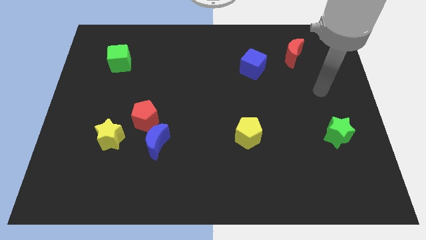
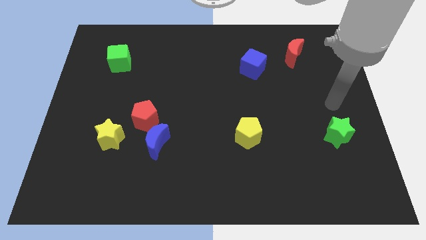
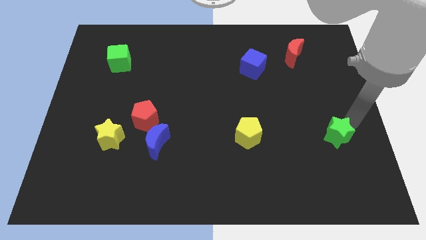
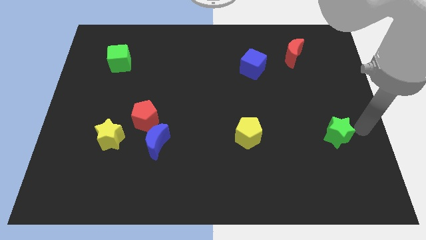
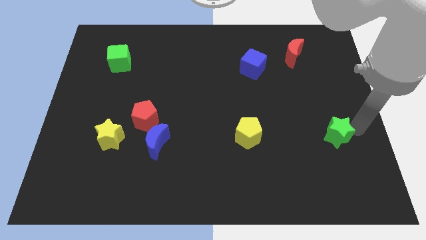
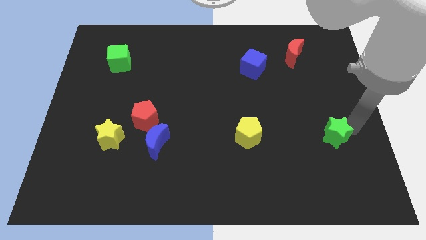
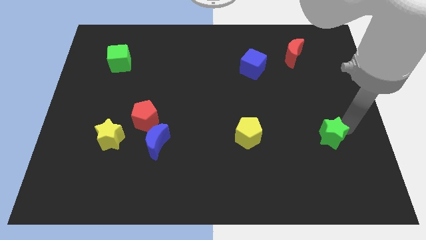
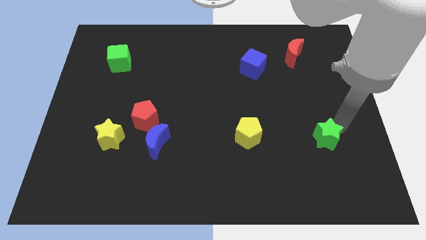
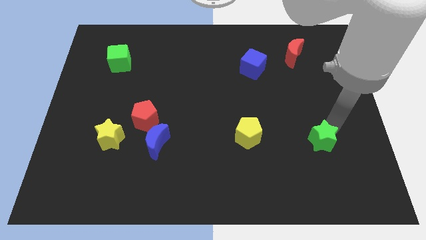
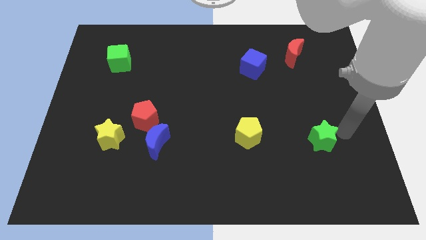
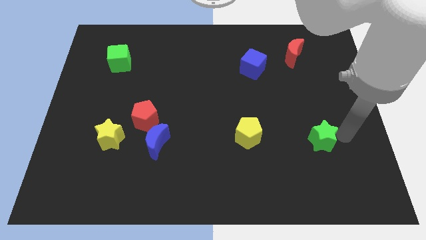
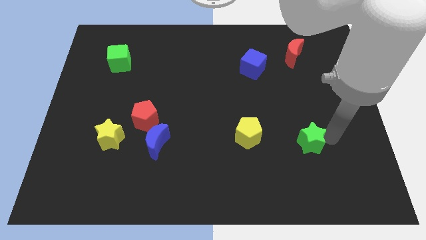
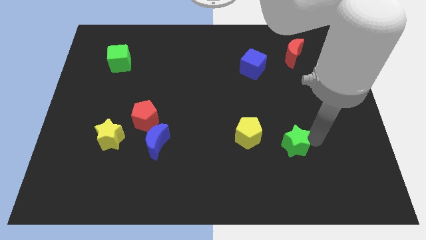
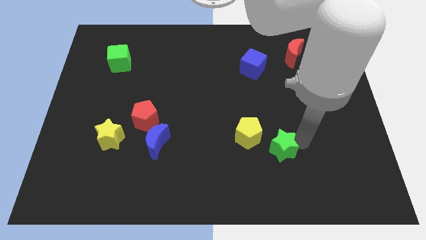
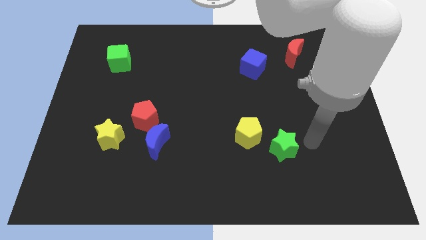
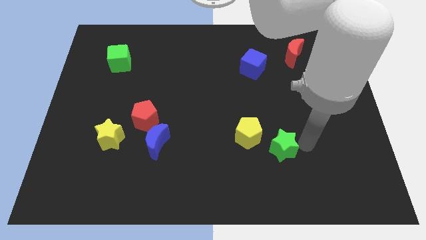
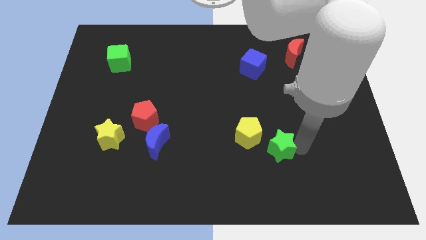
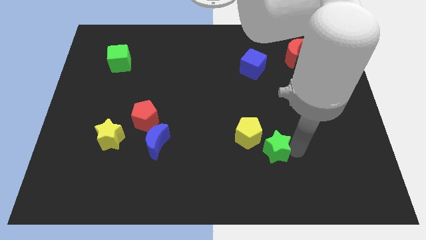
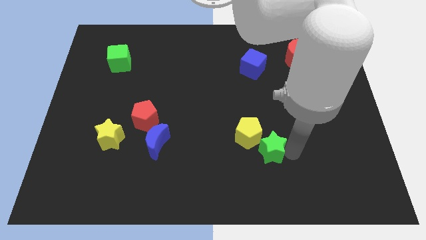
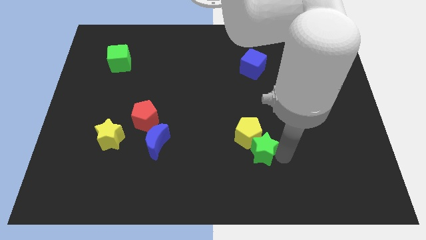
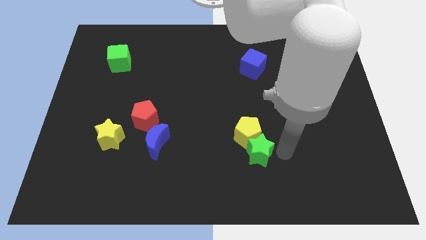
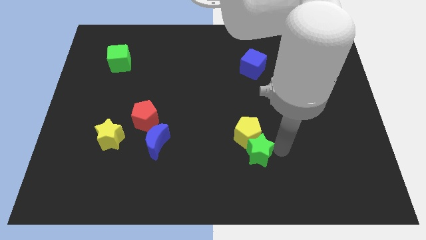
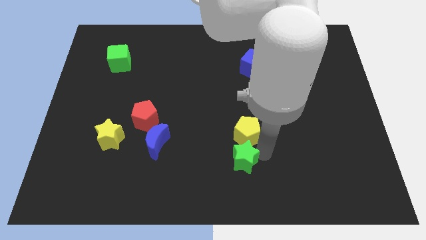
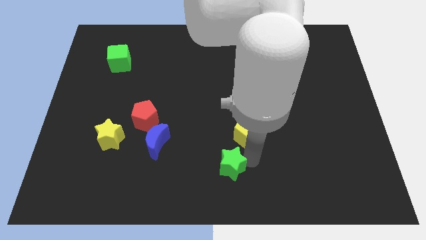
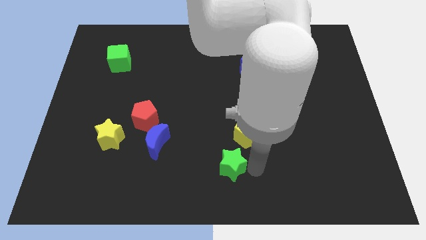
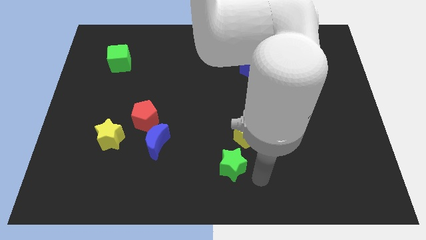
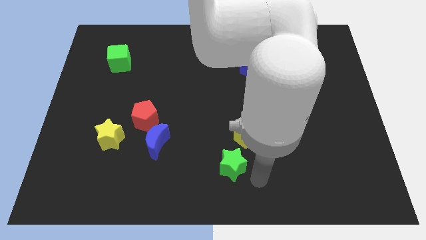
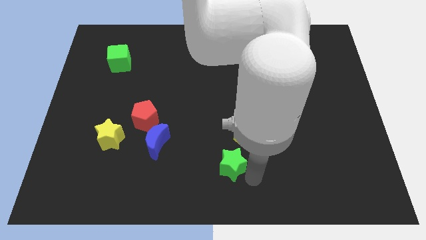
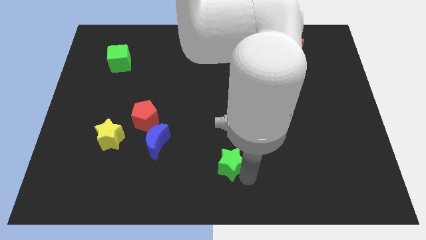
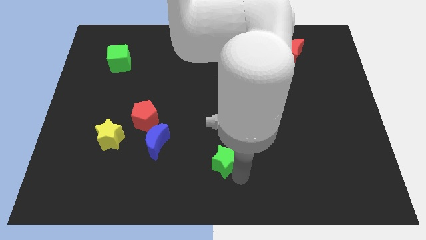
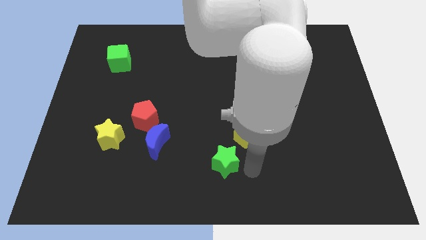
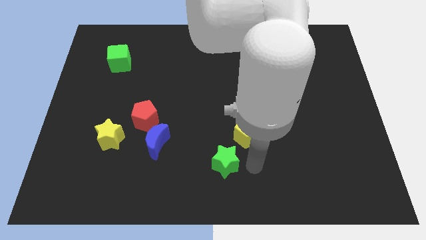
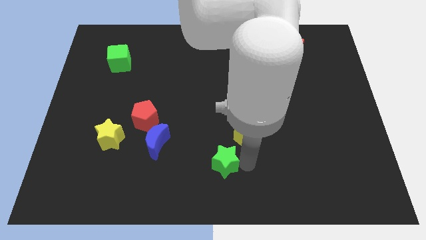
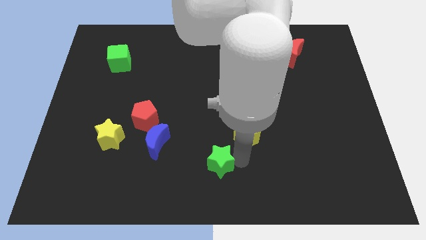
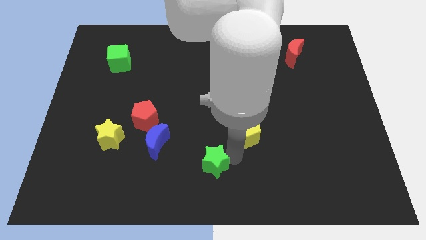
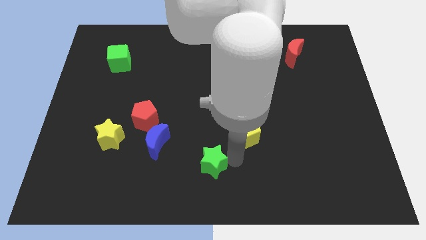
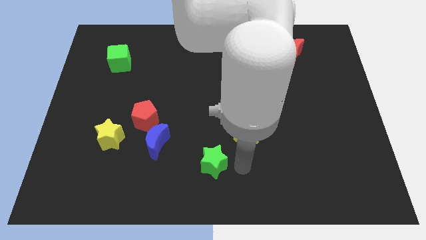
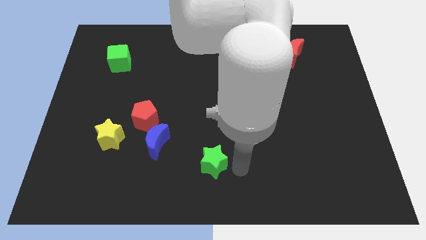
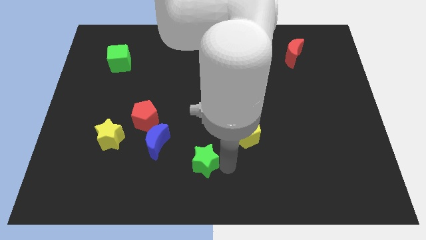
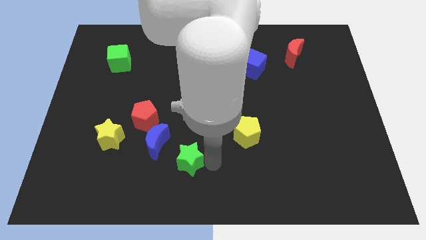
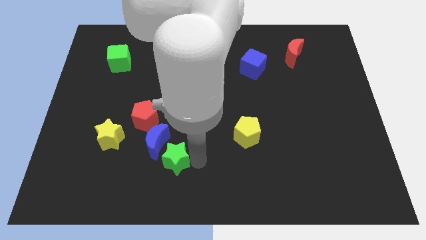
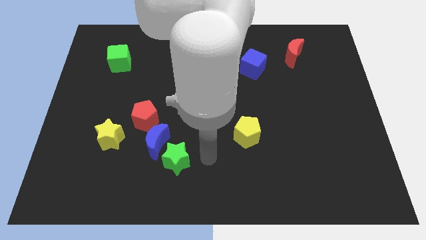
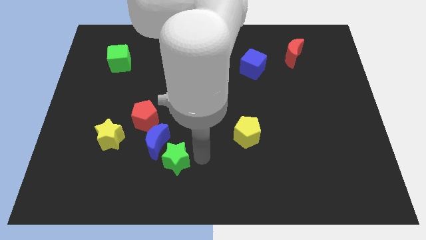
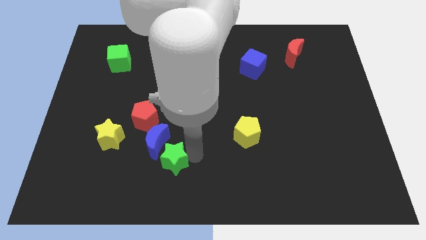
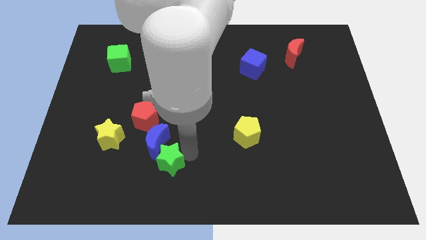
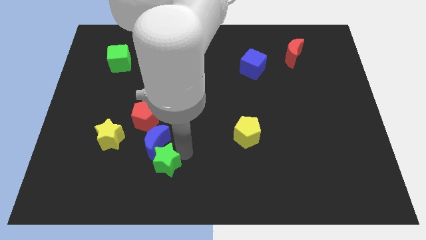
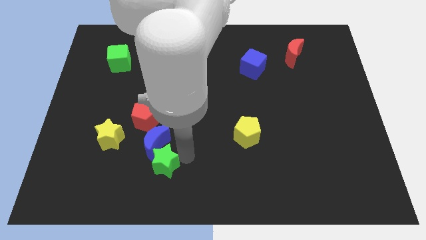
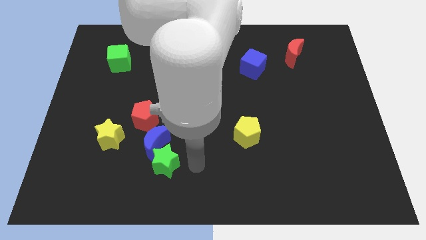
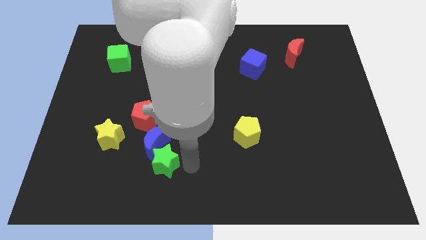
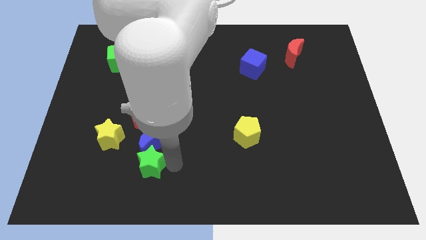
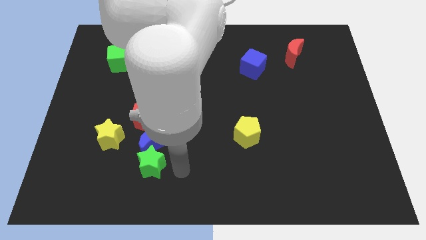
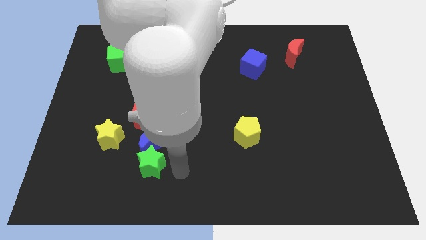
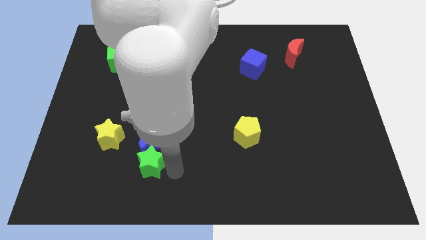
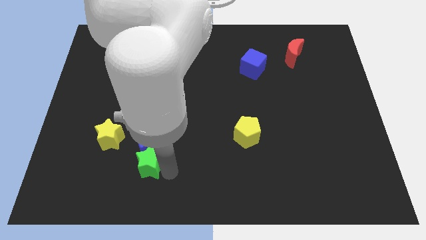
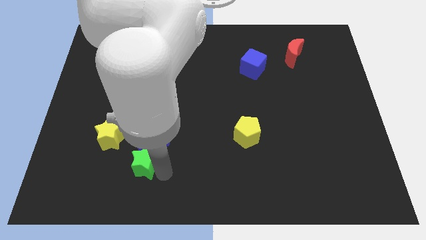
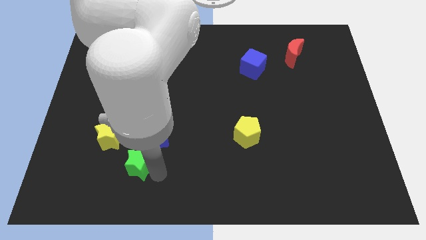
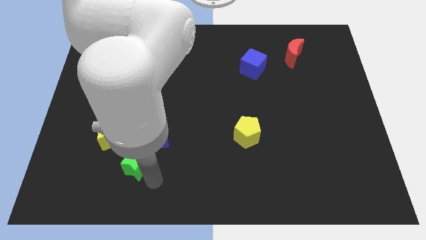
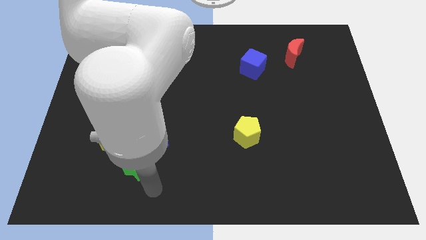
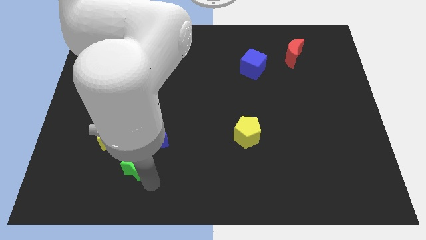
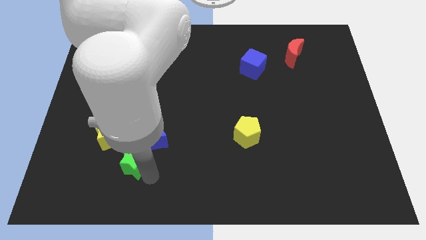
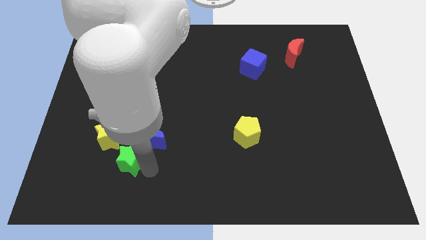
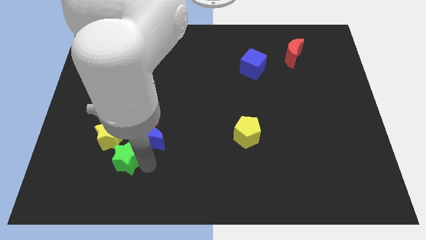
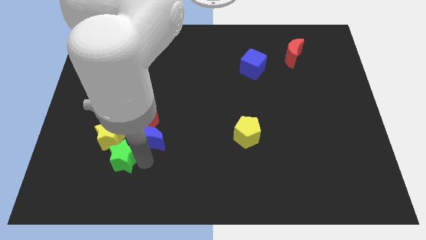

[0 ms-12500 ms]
slide the green star next to the yellow star

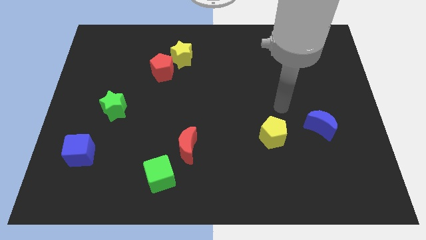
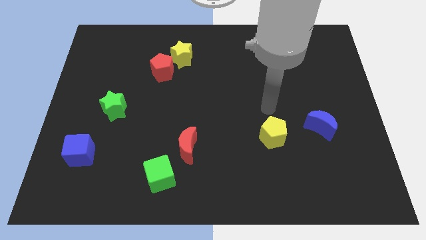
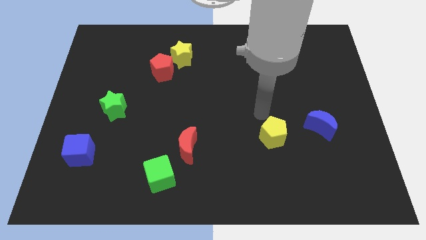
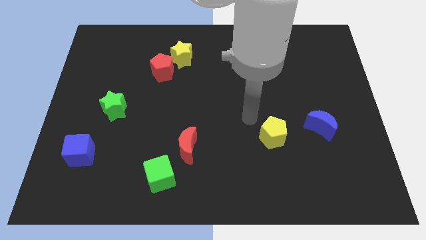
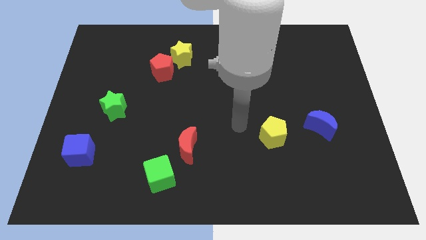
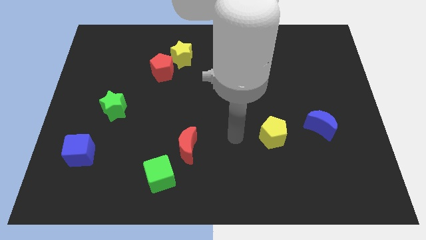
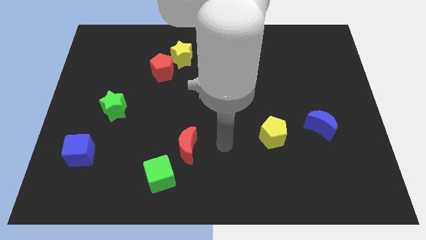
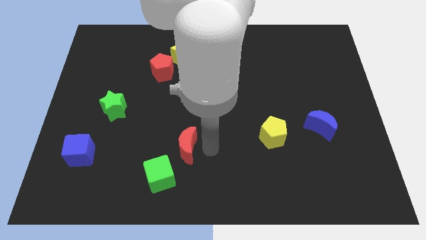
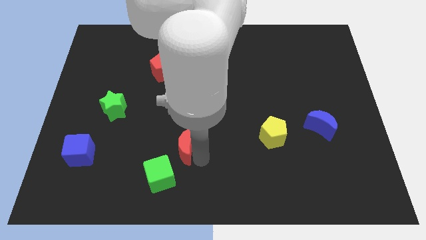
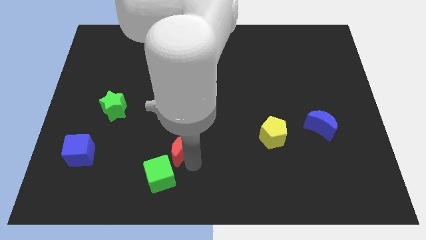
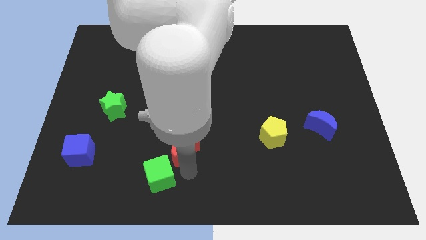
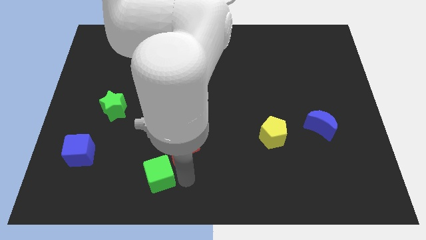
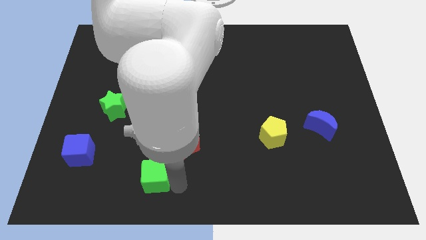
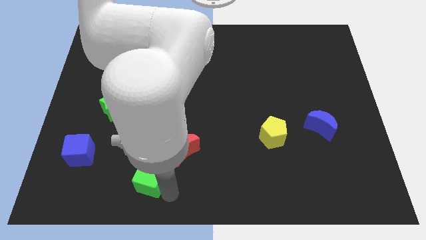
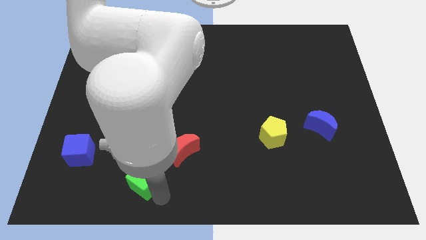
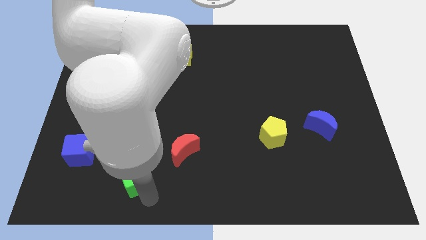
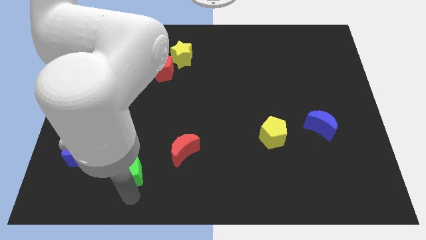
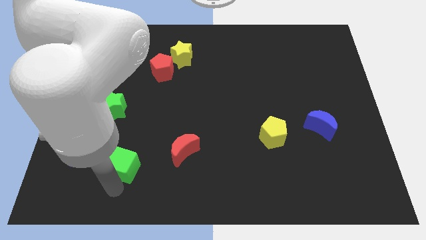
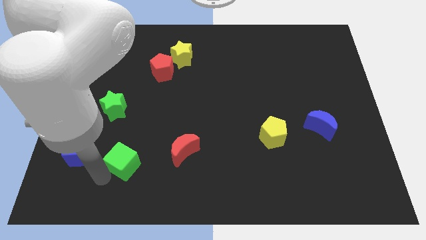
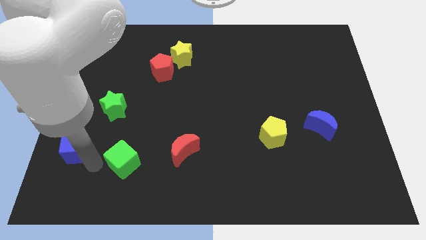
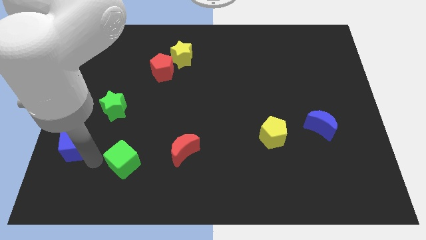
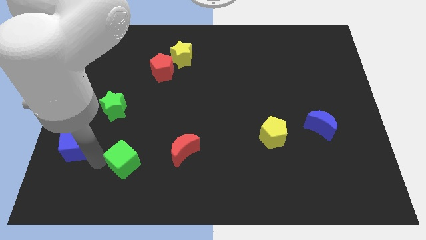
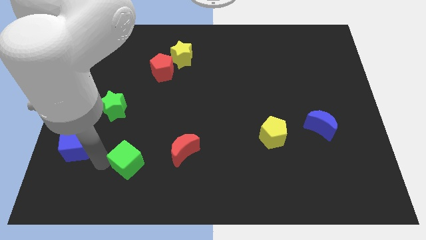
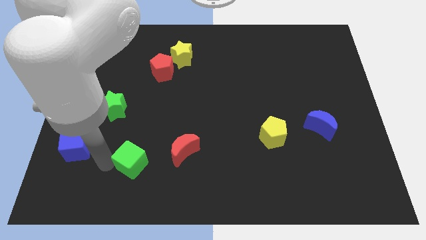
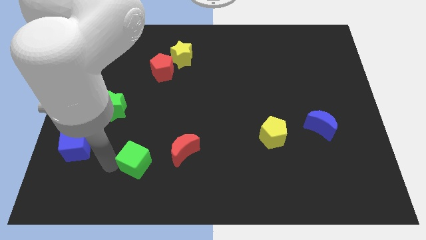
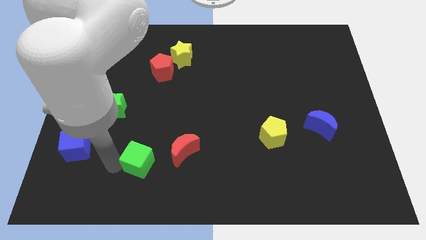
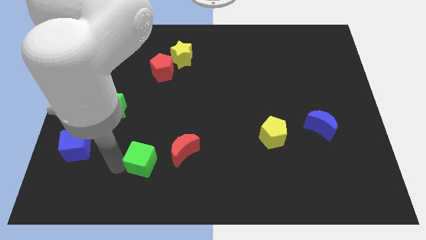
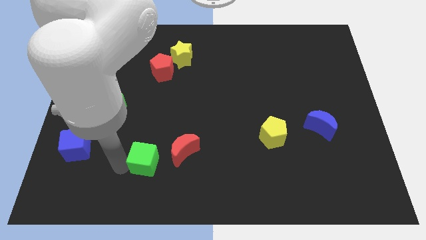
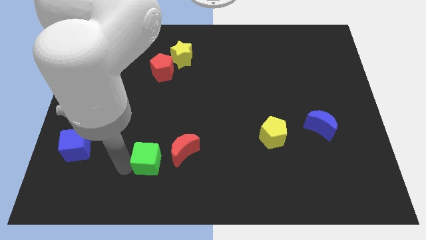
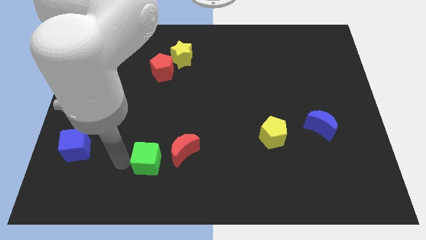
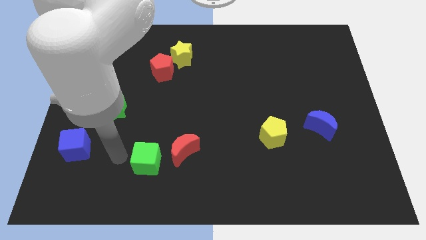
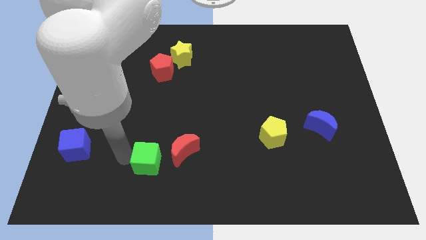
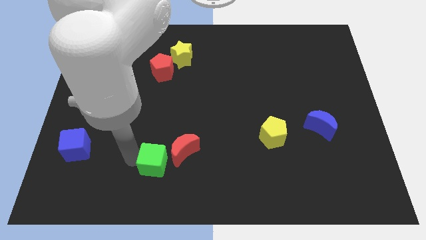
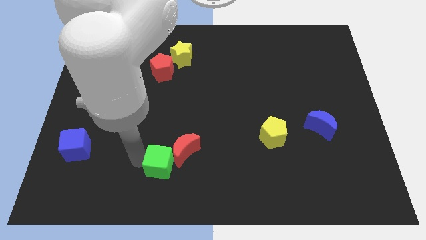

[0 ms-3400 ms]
push the green cube to the red moon
